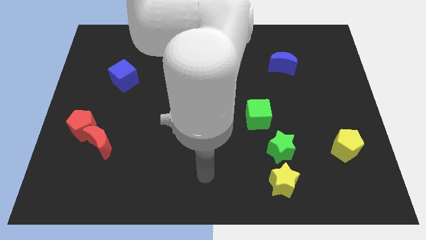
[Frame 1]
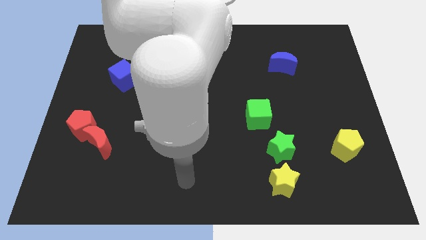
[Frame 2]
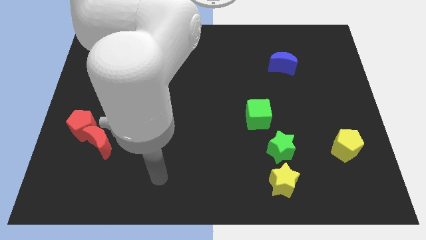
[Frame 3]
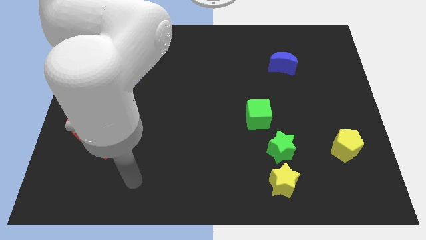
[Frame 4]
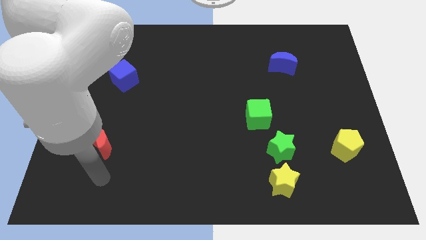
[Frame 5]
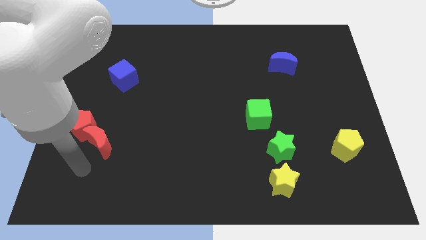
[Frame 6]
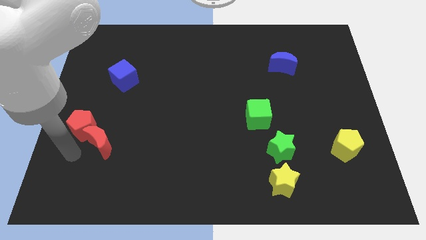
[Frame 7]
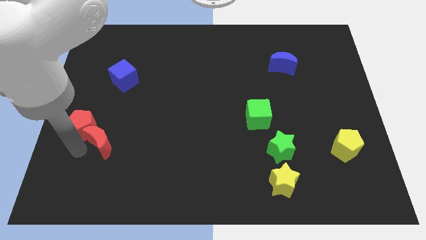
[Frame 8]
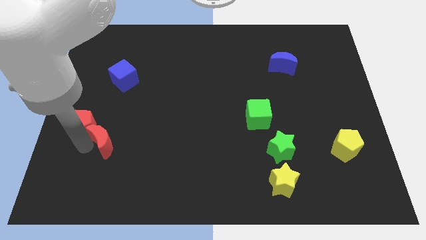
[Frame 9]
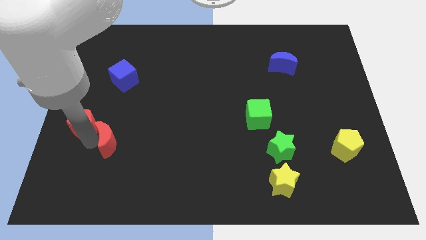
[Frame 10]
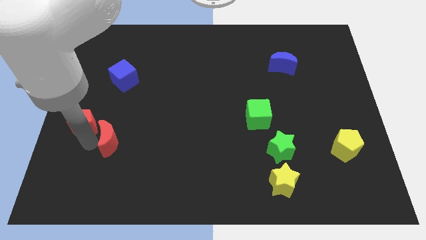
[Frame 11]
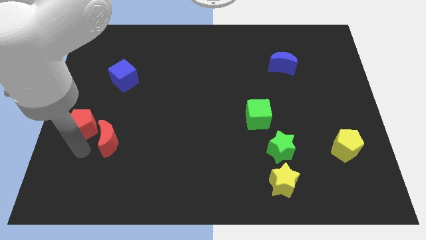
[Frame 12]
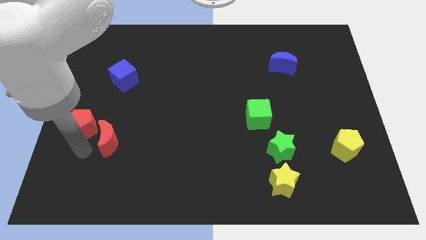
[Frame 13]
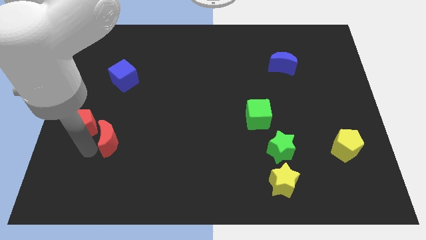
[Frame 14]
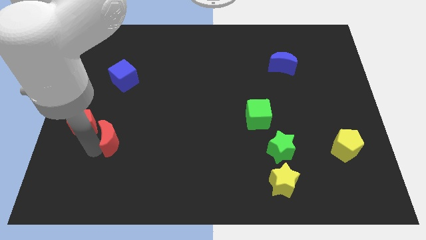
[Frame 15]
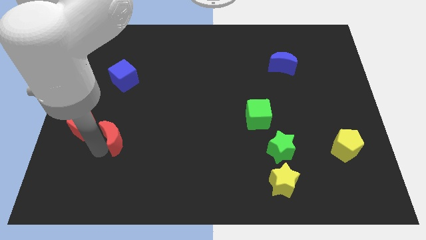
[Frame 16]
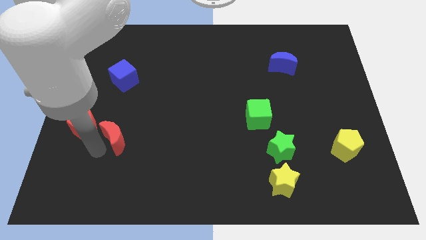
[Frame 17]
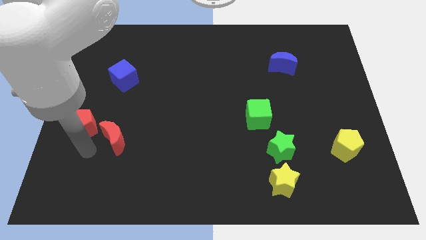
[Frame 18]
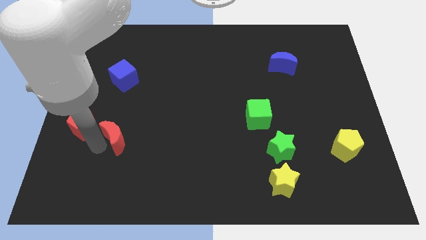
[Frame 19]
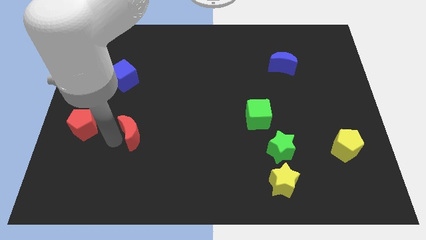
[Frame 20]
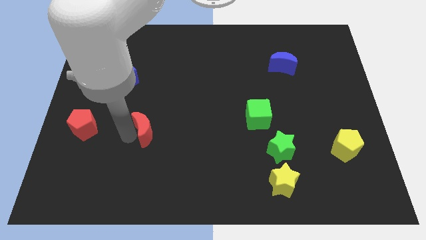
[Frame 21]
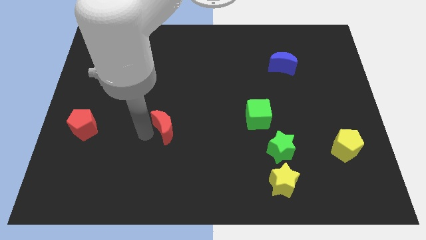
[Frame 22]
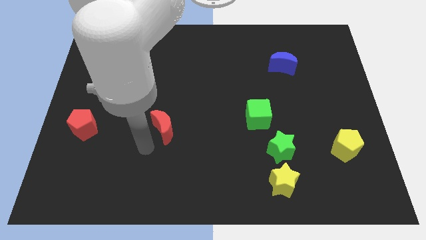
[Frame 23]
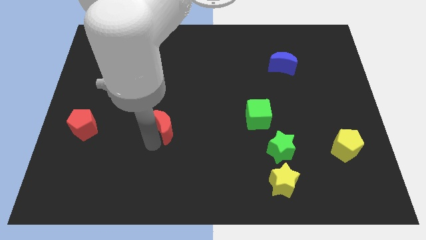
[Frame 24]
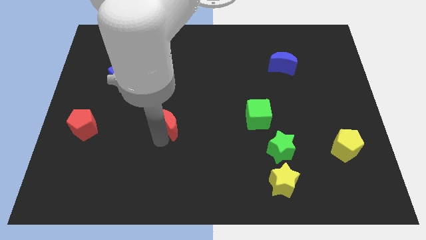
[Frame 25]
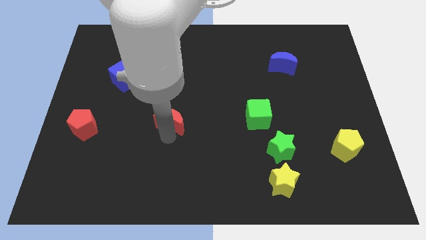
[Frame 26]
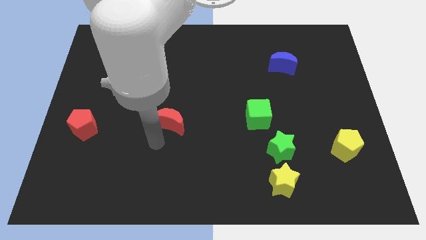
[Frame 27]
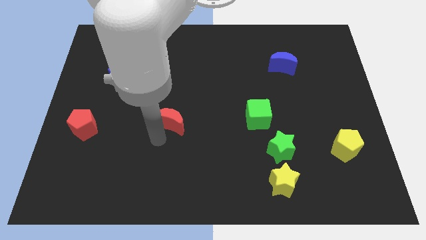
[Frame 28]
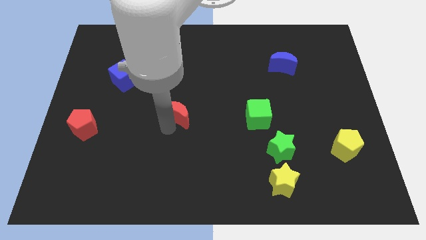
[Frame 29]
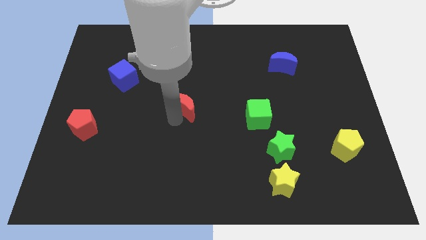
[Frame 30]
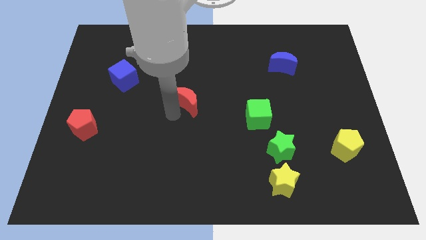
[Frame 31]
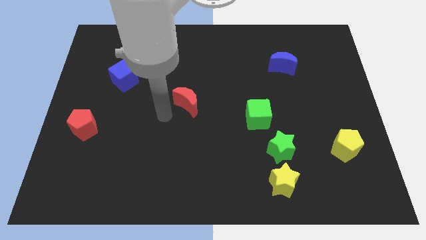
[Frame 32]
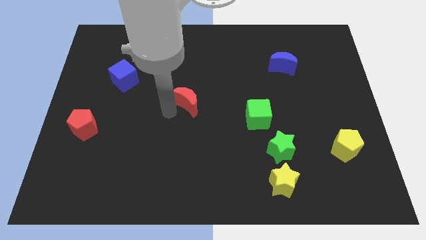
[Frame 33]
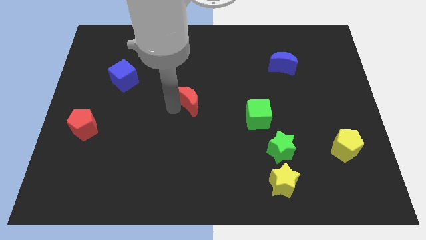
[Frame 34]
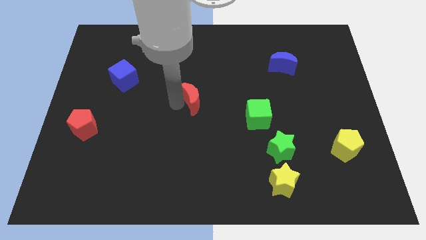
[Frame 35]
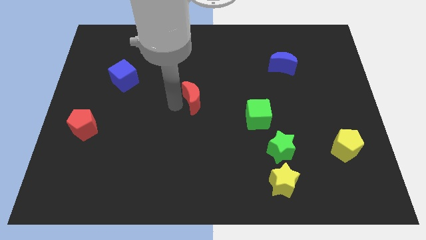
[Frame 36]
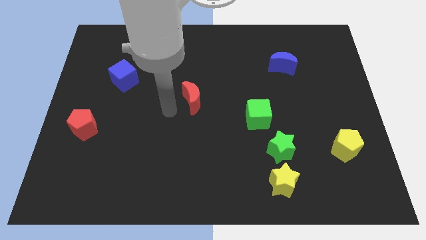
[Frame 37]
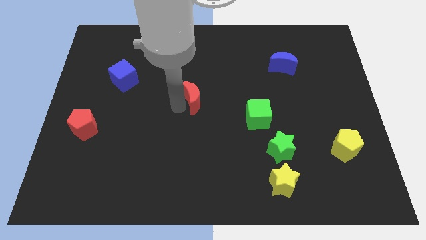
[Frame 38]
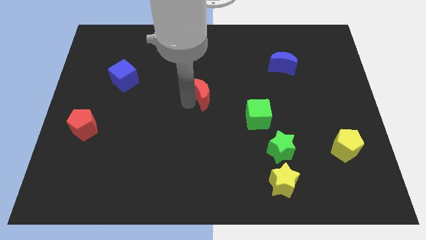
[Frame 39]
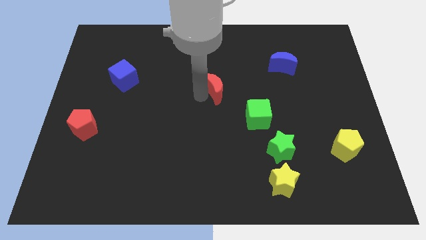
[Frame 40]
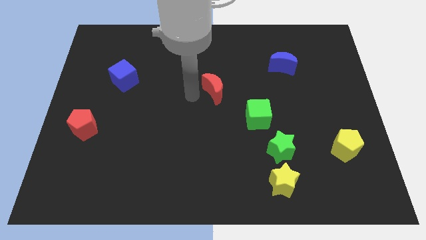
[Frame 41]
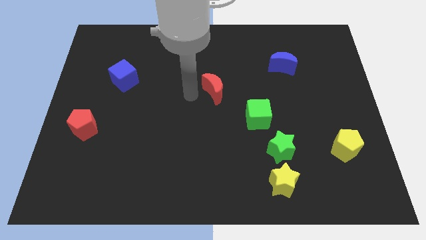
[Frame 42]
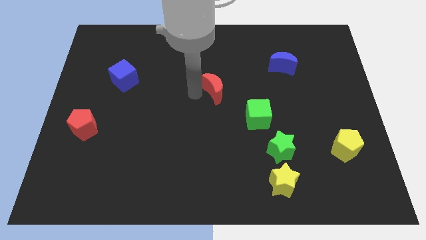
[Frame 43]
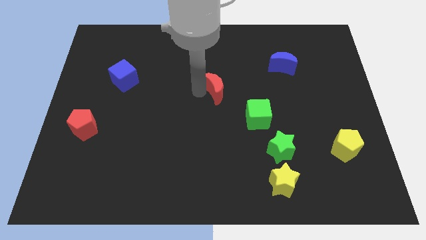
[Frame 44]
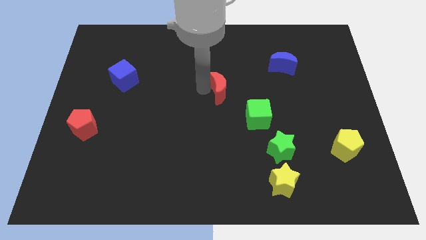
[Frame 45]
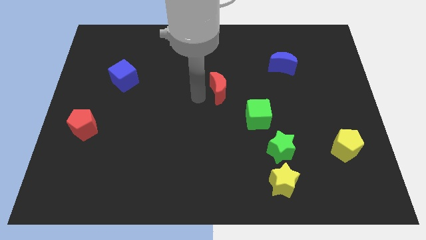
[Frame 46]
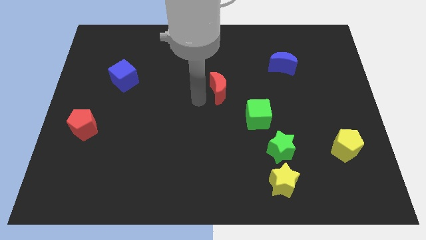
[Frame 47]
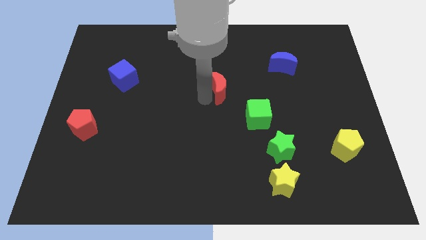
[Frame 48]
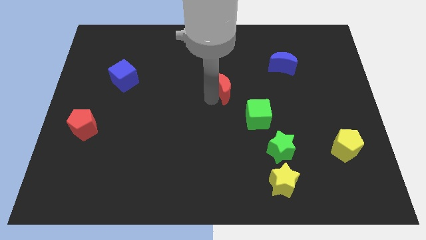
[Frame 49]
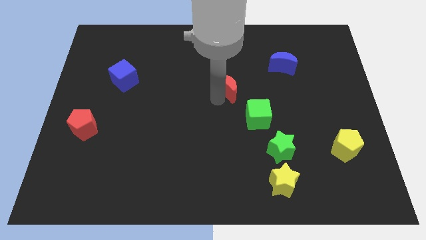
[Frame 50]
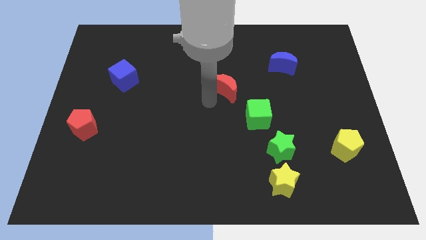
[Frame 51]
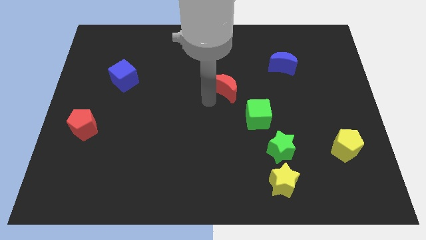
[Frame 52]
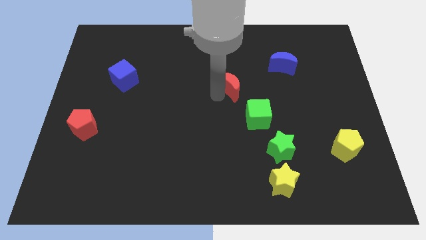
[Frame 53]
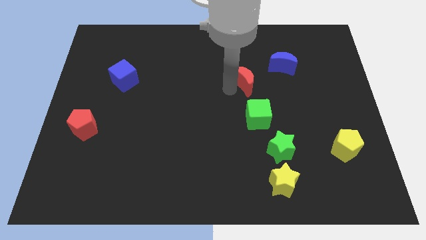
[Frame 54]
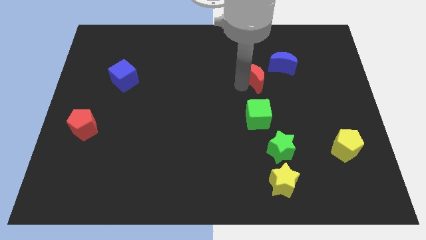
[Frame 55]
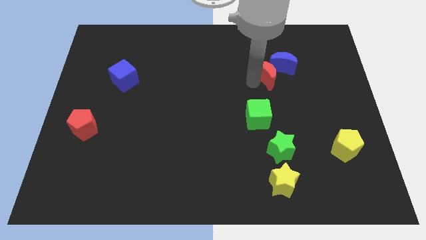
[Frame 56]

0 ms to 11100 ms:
slide the red moon next to the blue moon

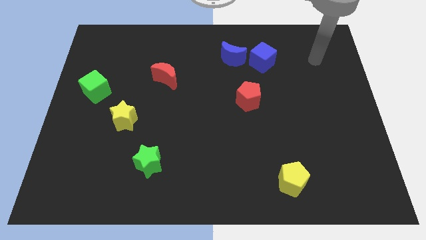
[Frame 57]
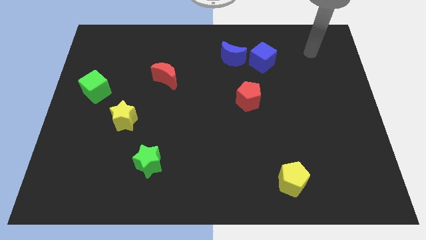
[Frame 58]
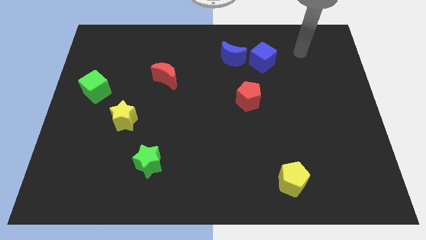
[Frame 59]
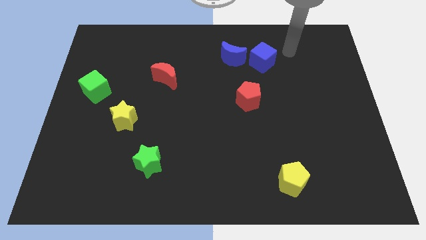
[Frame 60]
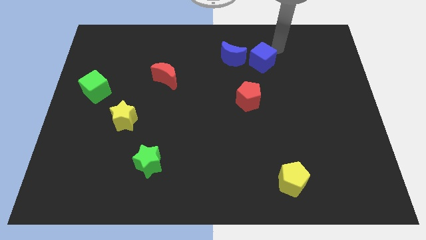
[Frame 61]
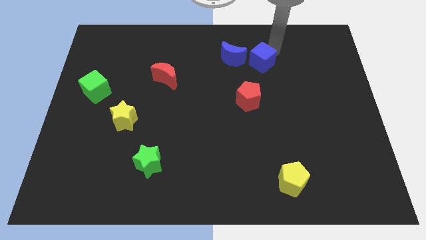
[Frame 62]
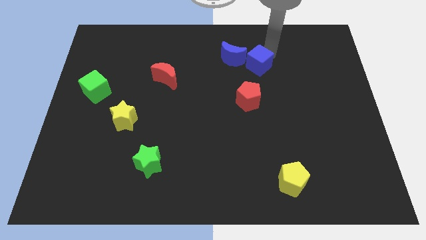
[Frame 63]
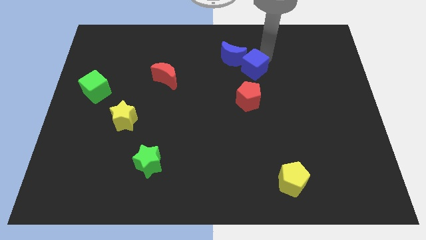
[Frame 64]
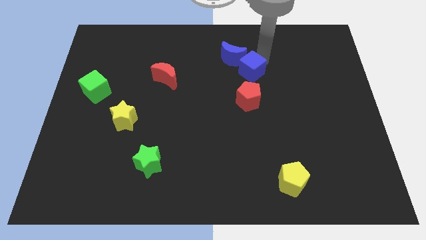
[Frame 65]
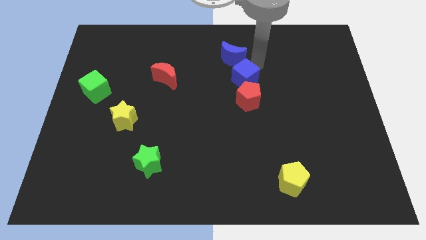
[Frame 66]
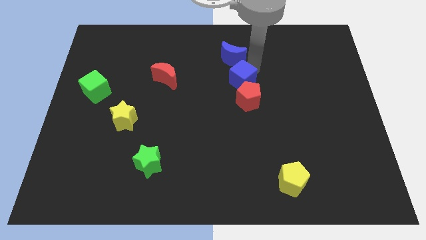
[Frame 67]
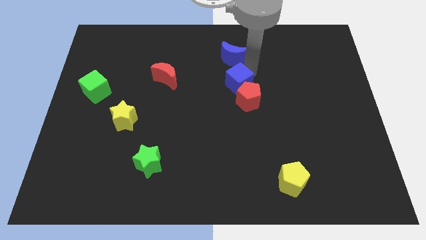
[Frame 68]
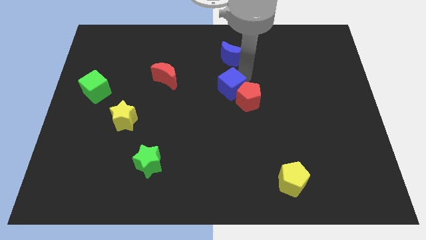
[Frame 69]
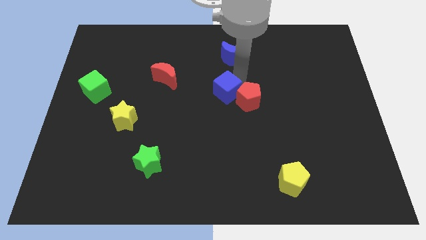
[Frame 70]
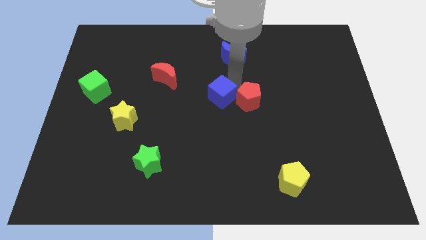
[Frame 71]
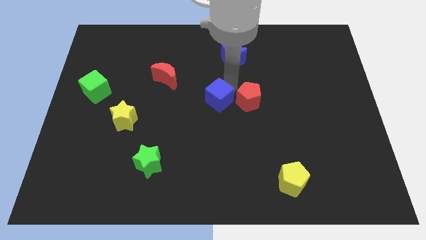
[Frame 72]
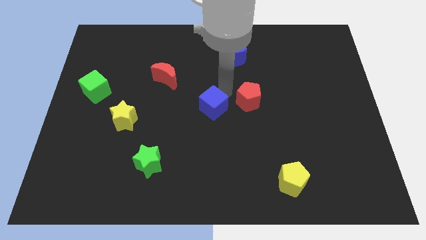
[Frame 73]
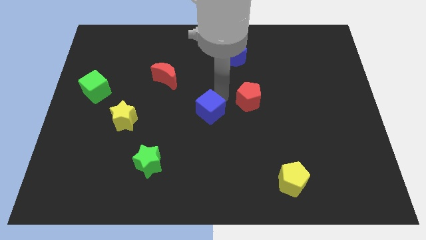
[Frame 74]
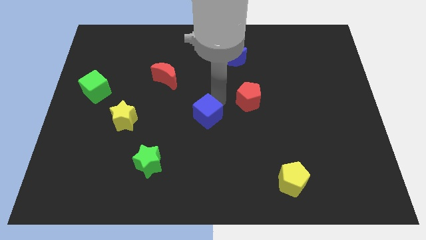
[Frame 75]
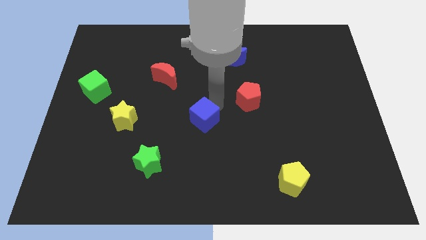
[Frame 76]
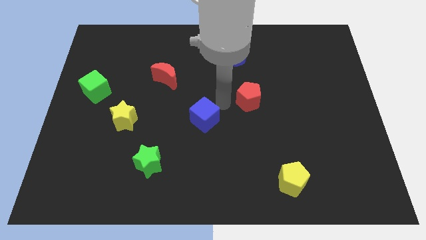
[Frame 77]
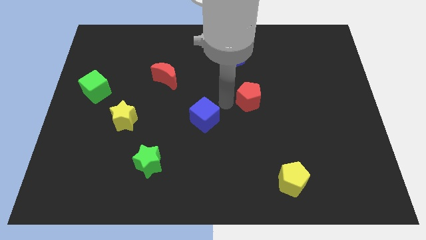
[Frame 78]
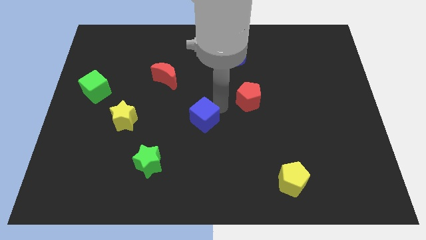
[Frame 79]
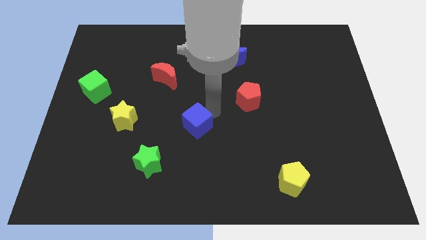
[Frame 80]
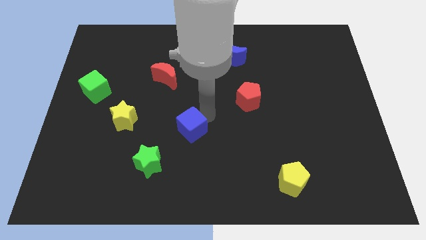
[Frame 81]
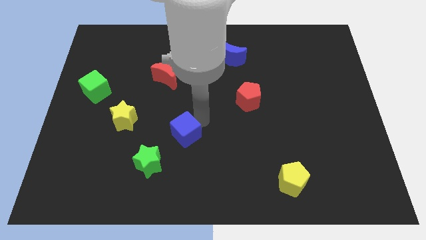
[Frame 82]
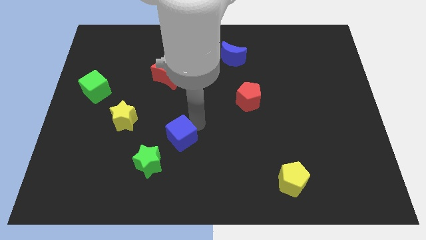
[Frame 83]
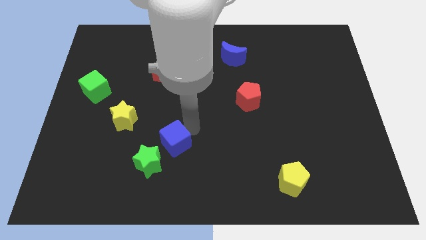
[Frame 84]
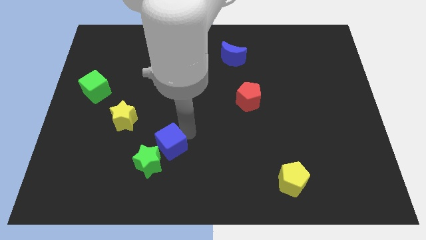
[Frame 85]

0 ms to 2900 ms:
slide the blue cube towards the green star
